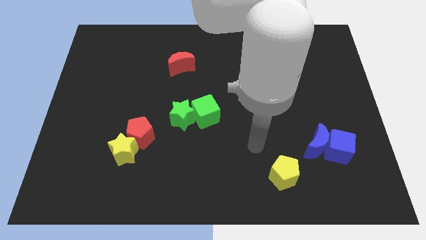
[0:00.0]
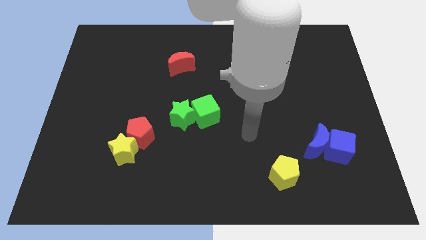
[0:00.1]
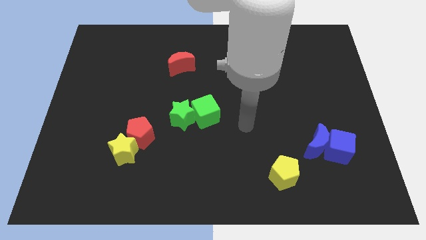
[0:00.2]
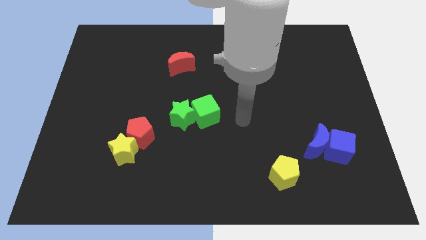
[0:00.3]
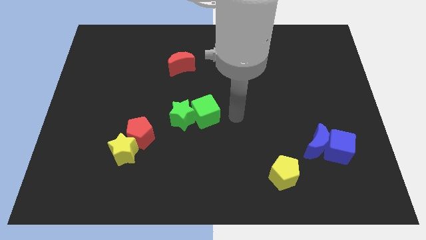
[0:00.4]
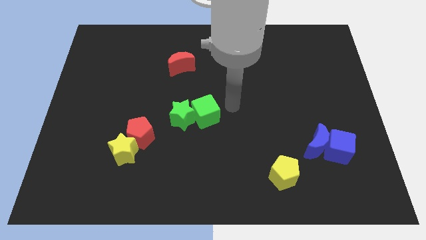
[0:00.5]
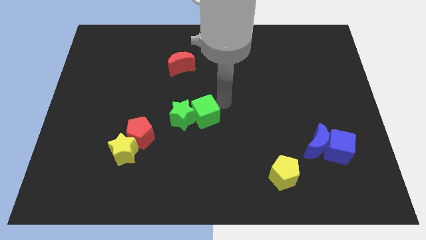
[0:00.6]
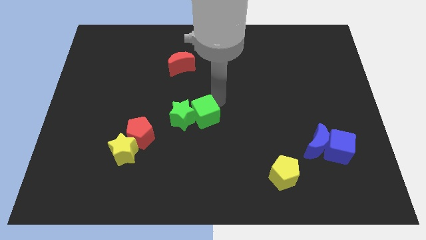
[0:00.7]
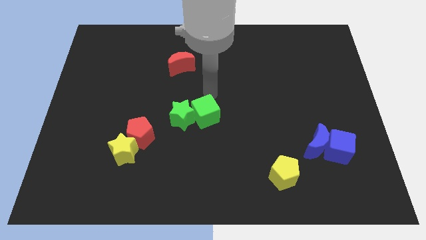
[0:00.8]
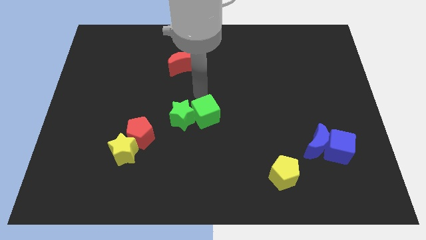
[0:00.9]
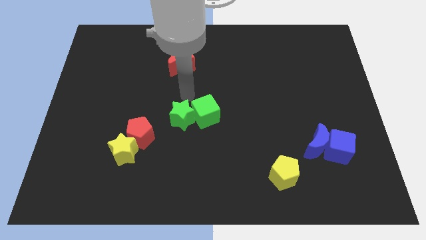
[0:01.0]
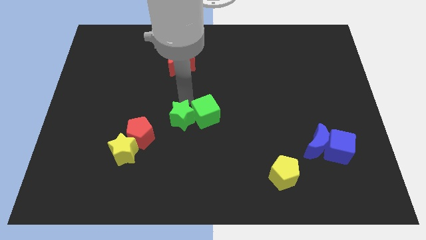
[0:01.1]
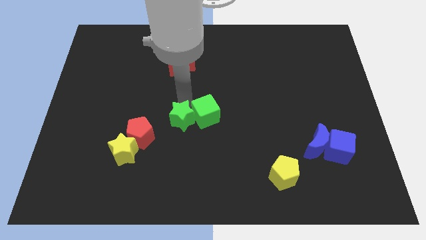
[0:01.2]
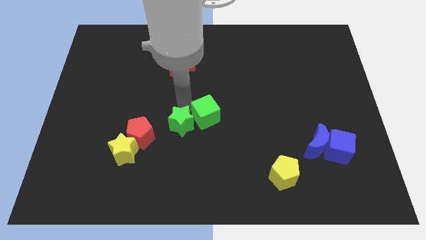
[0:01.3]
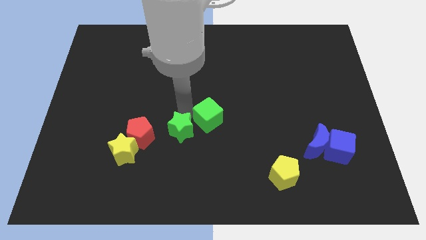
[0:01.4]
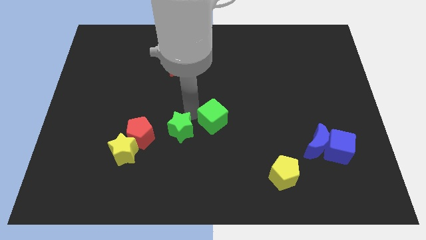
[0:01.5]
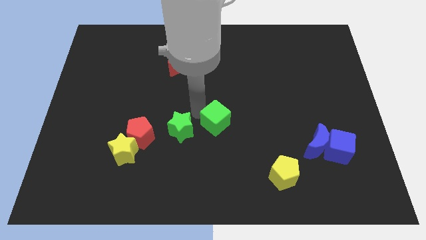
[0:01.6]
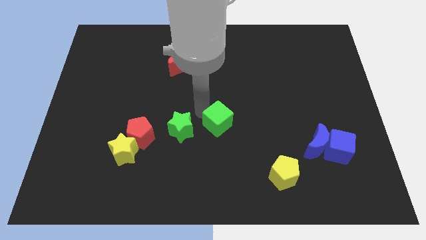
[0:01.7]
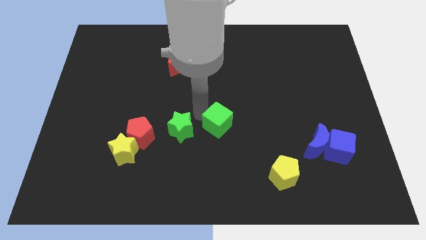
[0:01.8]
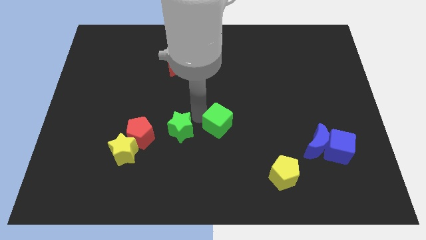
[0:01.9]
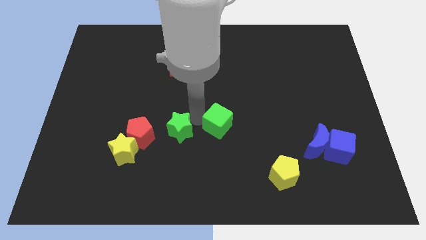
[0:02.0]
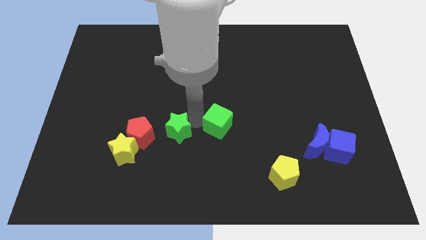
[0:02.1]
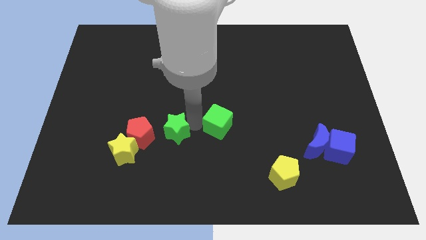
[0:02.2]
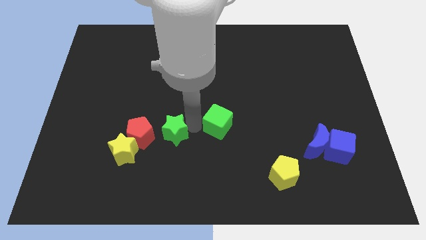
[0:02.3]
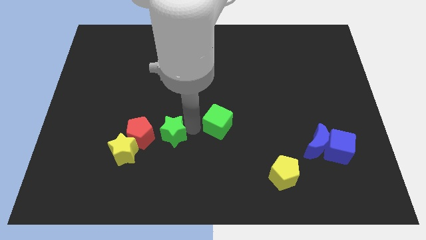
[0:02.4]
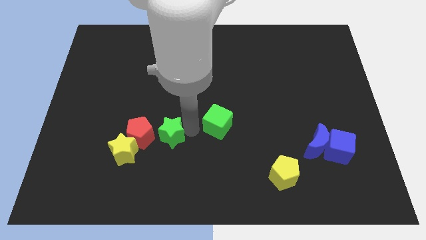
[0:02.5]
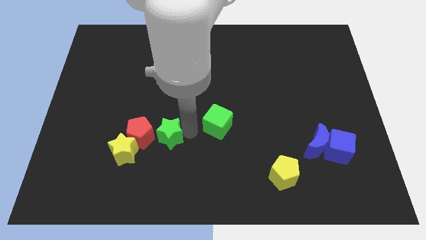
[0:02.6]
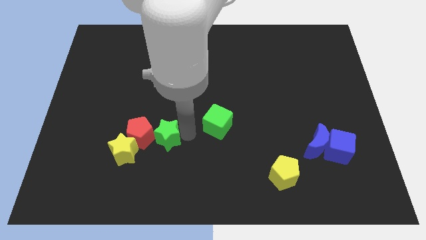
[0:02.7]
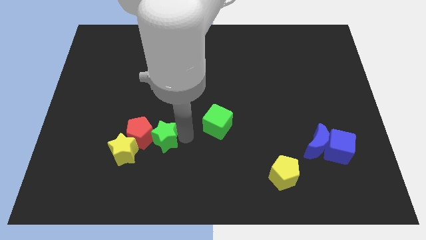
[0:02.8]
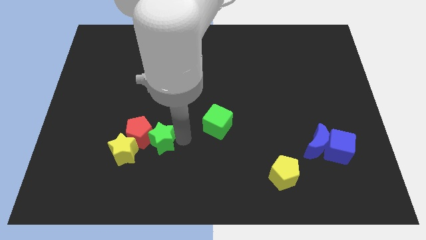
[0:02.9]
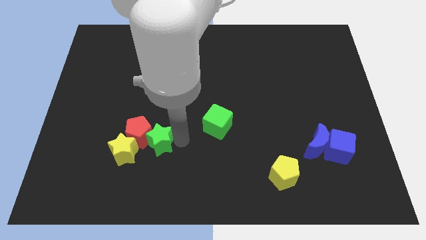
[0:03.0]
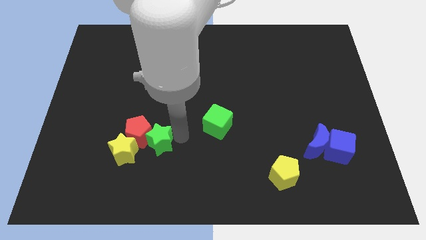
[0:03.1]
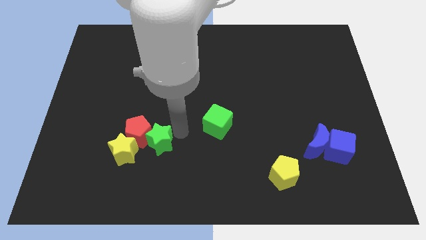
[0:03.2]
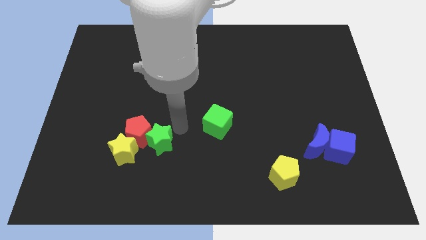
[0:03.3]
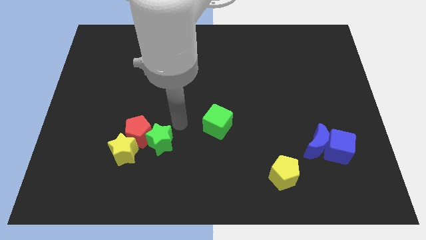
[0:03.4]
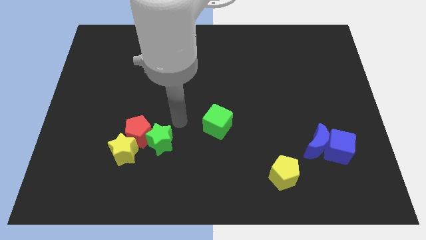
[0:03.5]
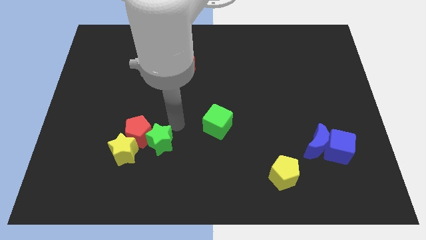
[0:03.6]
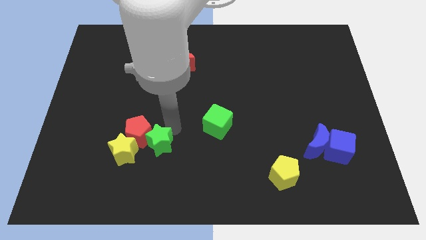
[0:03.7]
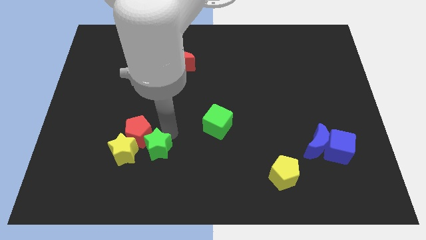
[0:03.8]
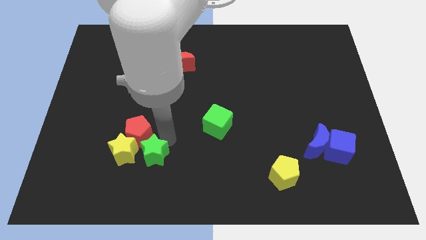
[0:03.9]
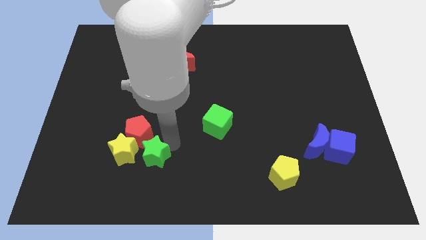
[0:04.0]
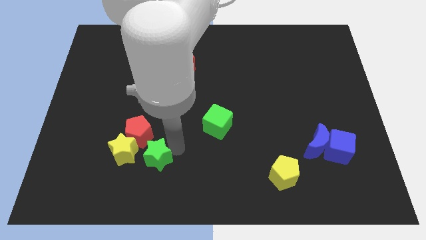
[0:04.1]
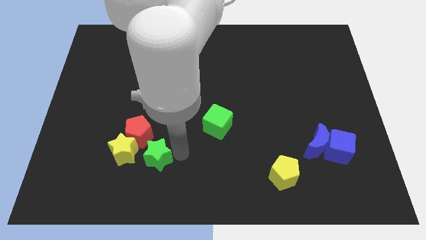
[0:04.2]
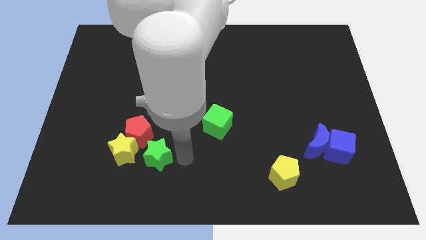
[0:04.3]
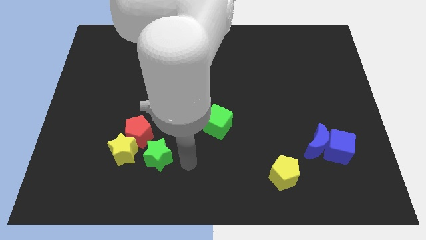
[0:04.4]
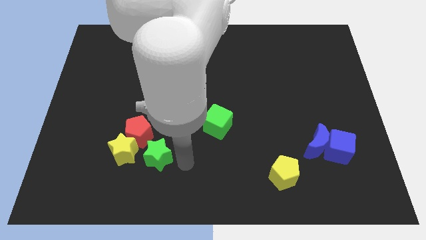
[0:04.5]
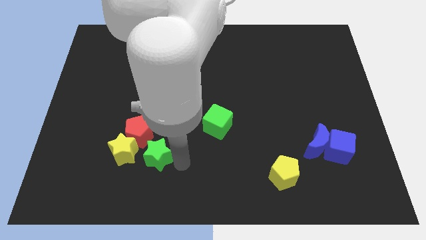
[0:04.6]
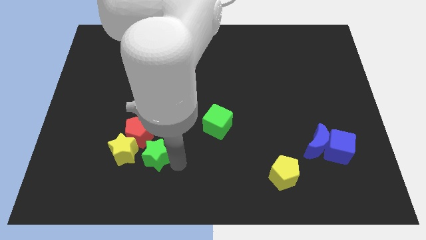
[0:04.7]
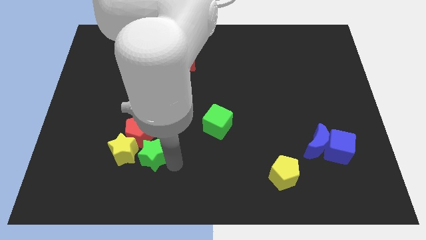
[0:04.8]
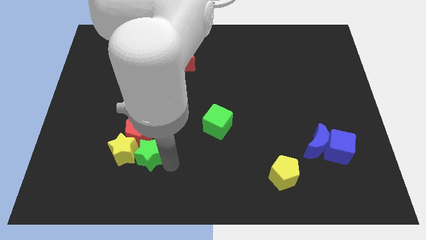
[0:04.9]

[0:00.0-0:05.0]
slide the green star next to the yellow star

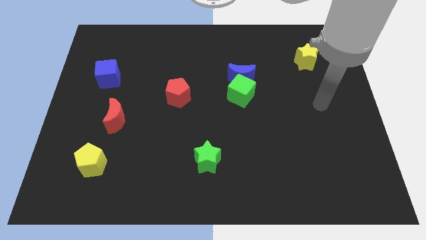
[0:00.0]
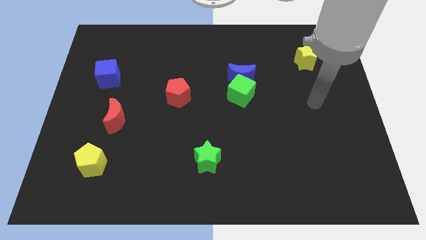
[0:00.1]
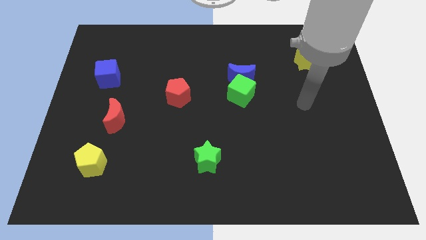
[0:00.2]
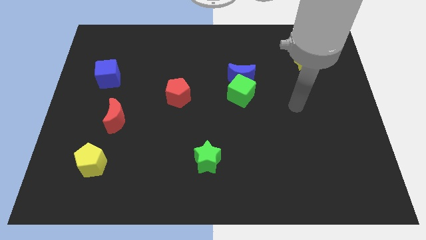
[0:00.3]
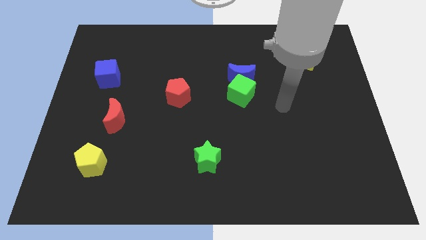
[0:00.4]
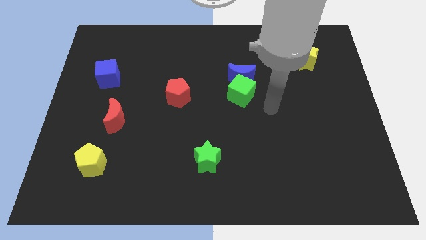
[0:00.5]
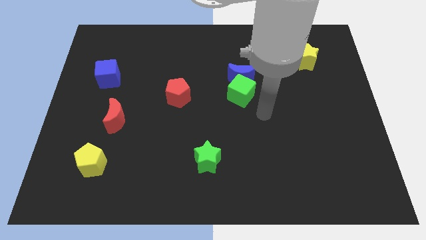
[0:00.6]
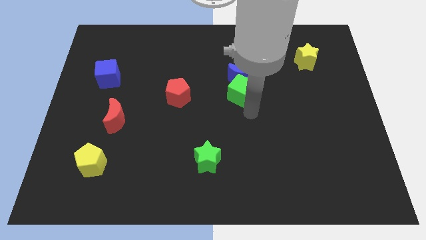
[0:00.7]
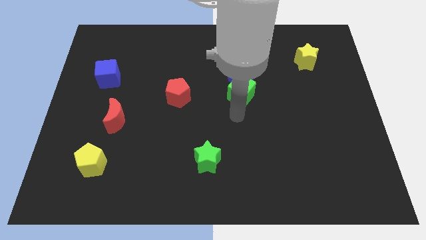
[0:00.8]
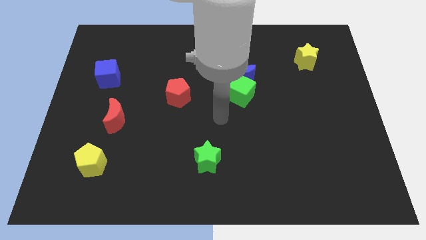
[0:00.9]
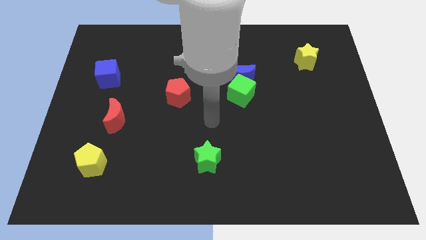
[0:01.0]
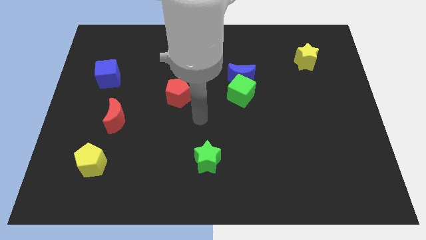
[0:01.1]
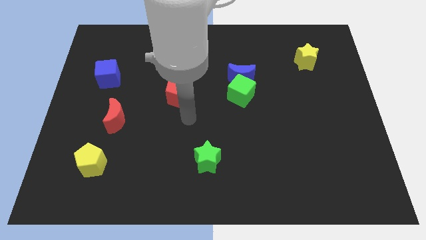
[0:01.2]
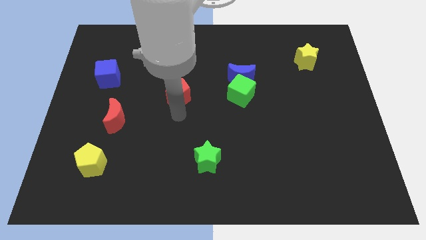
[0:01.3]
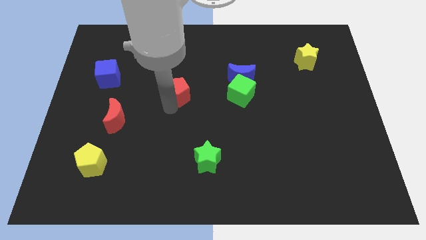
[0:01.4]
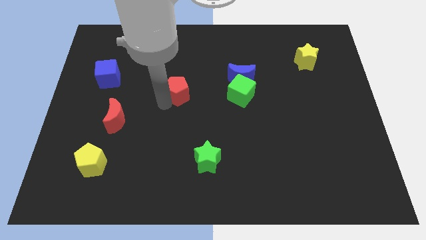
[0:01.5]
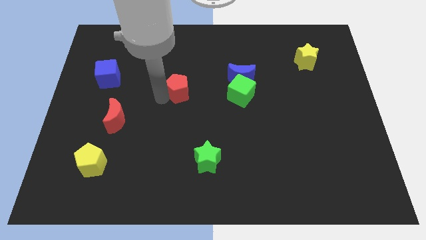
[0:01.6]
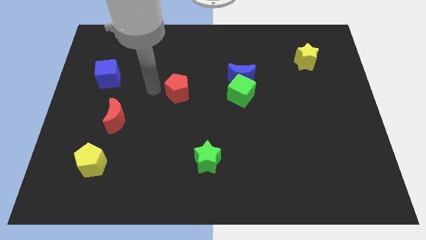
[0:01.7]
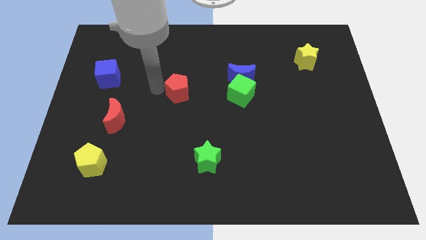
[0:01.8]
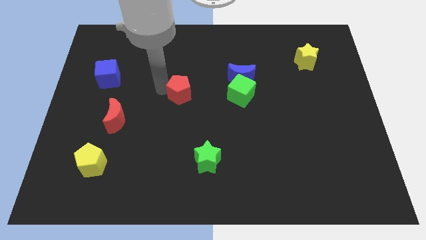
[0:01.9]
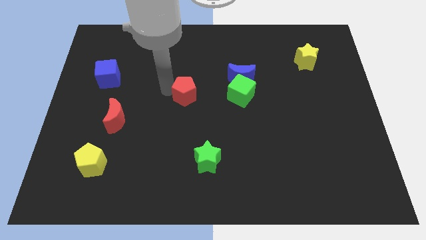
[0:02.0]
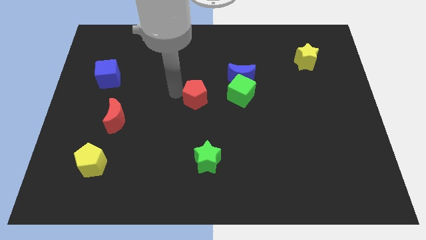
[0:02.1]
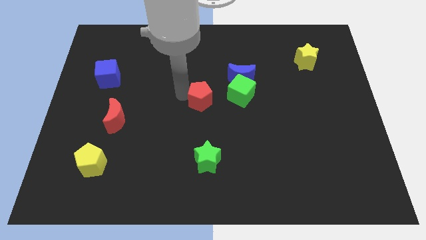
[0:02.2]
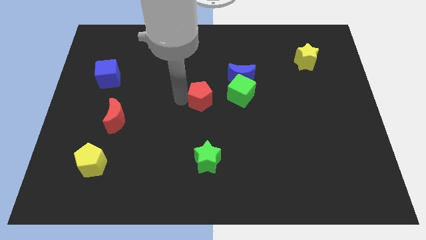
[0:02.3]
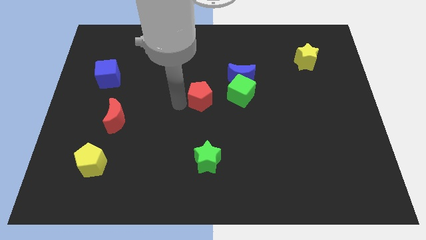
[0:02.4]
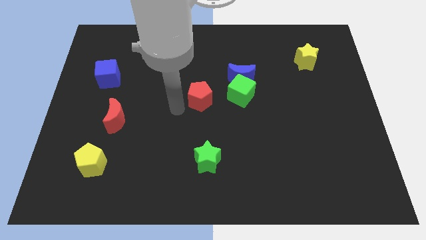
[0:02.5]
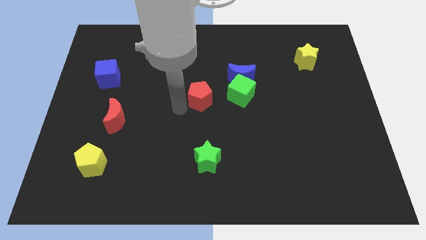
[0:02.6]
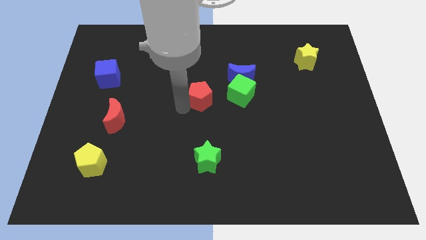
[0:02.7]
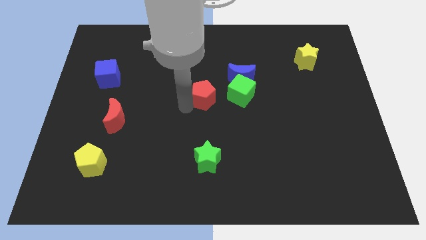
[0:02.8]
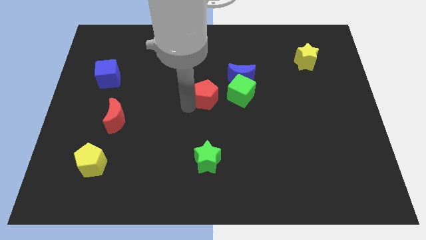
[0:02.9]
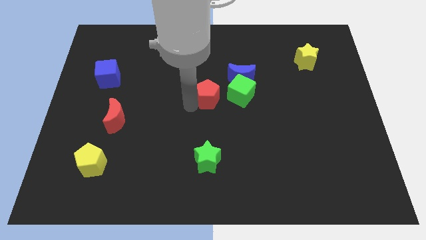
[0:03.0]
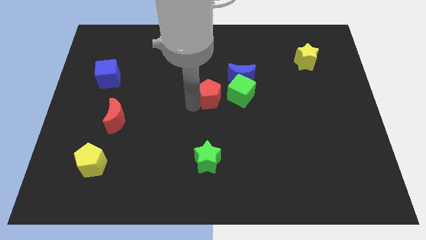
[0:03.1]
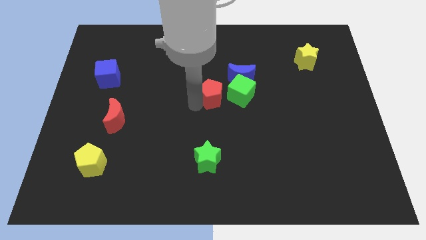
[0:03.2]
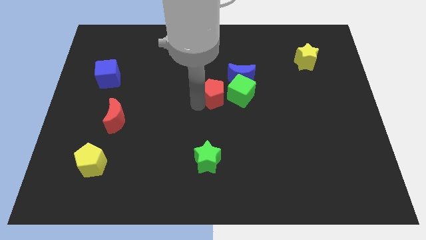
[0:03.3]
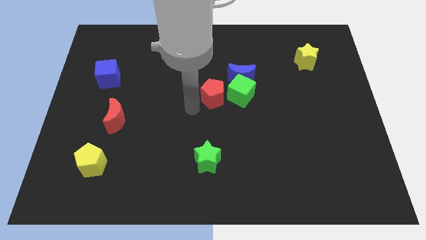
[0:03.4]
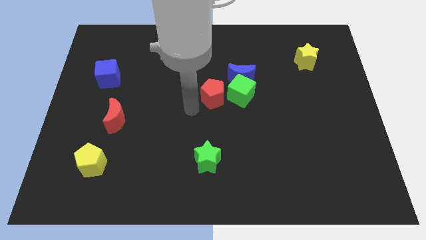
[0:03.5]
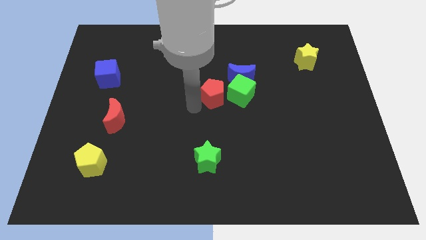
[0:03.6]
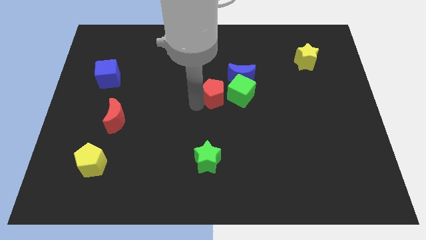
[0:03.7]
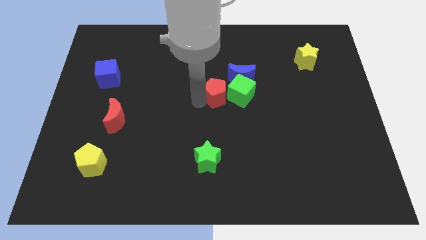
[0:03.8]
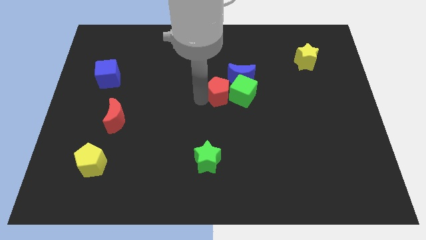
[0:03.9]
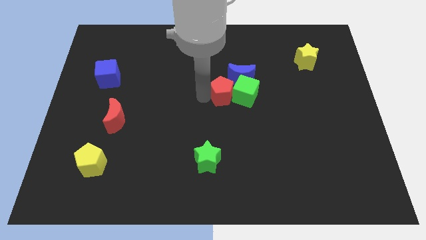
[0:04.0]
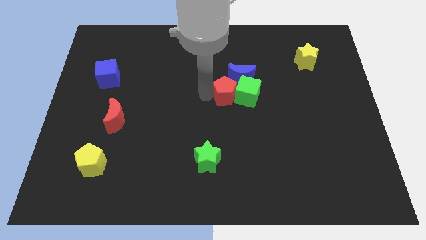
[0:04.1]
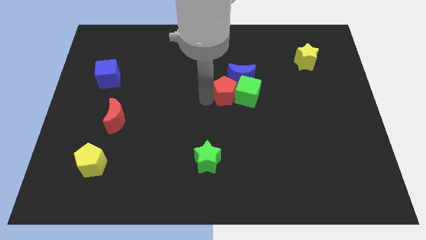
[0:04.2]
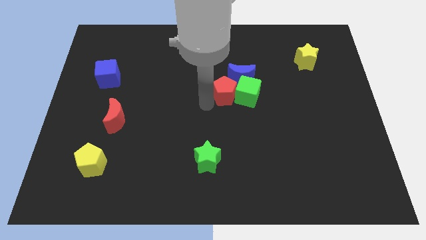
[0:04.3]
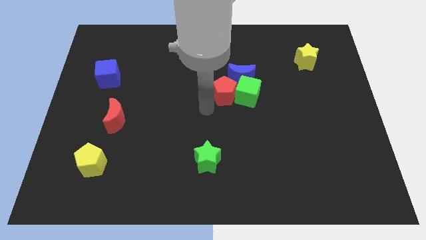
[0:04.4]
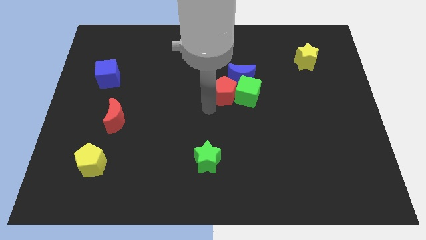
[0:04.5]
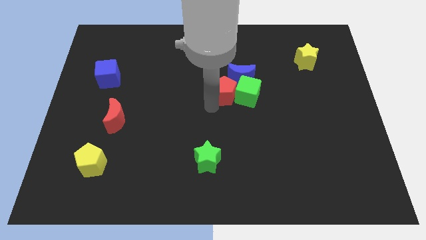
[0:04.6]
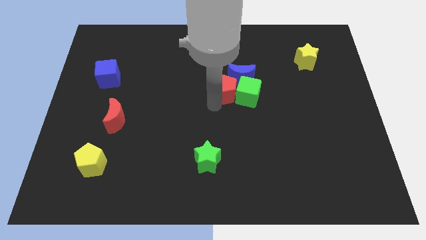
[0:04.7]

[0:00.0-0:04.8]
push the red pentagon to the blue moon
